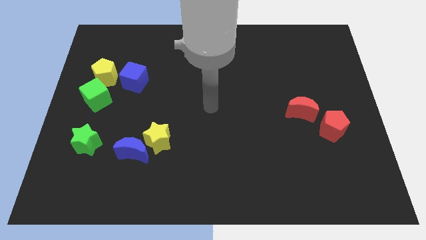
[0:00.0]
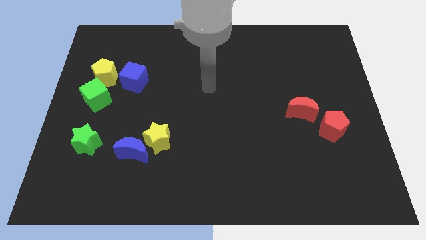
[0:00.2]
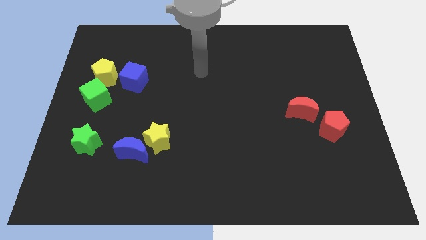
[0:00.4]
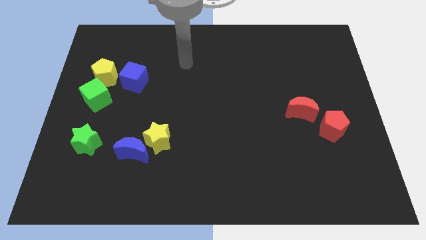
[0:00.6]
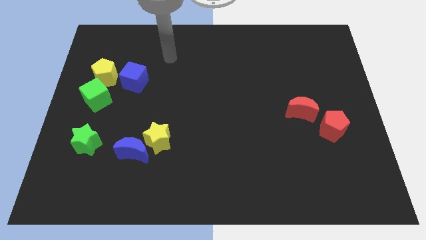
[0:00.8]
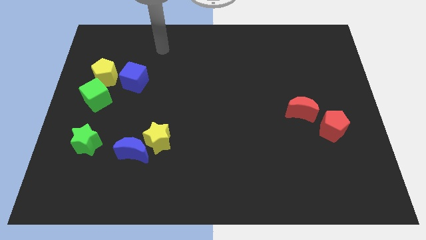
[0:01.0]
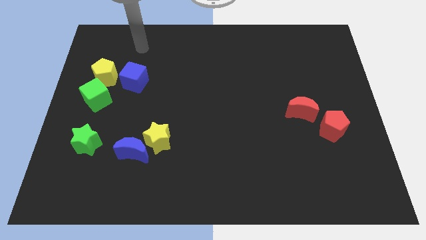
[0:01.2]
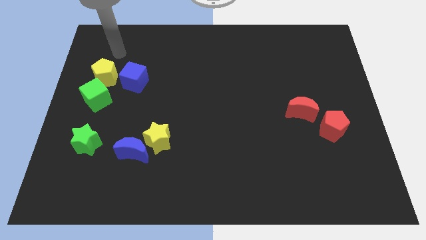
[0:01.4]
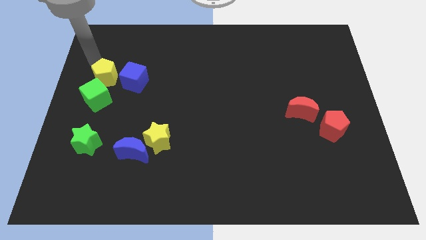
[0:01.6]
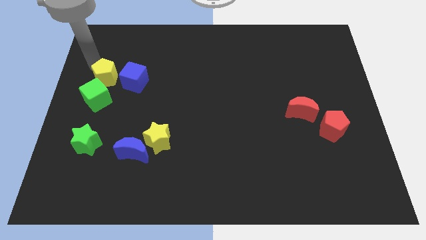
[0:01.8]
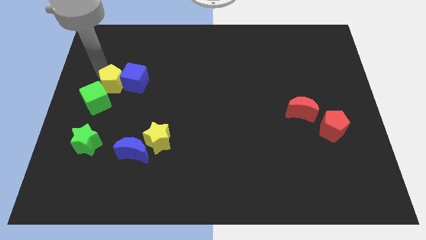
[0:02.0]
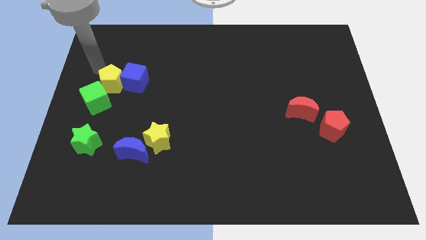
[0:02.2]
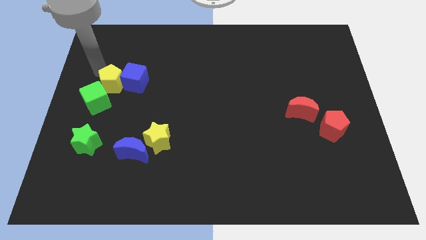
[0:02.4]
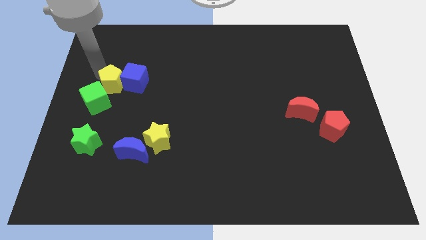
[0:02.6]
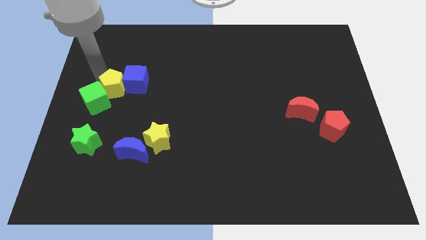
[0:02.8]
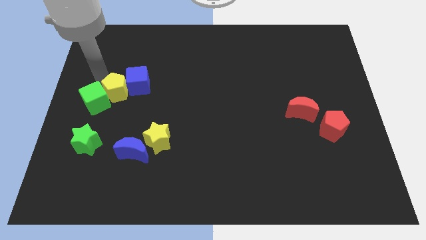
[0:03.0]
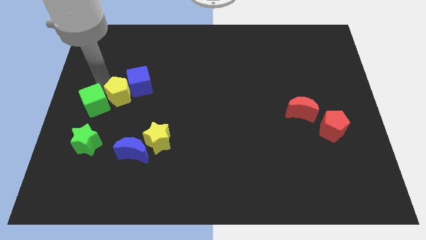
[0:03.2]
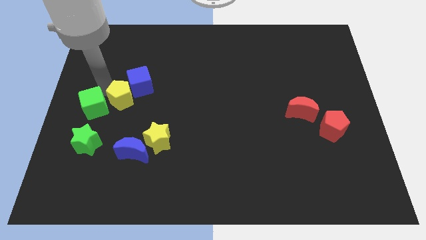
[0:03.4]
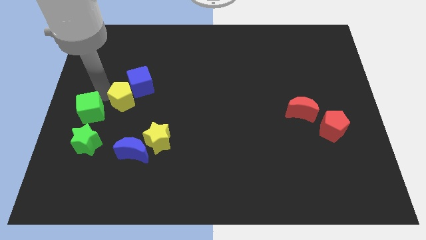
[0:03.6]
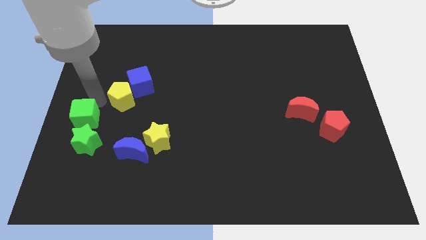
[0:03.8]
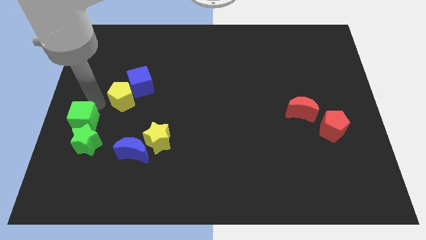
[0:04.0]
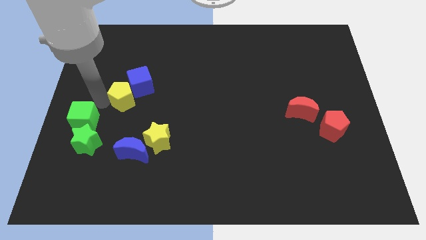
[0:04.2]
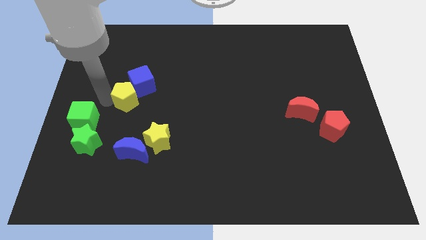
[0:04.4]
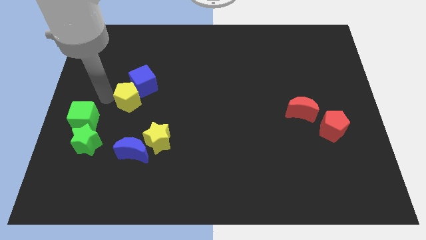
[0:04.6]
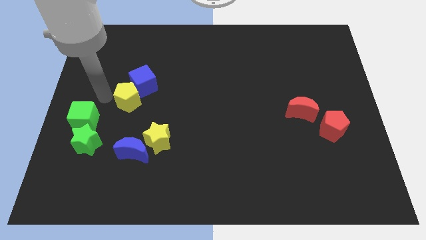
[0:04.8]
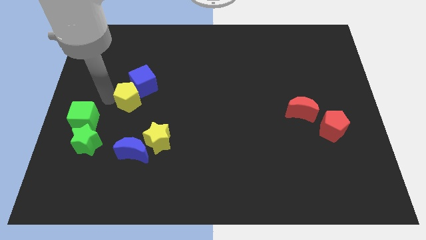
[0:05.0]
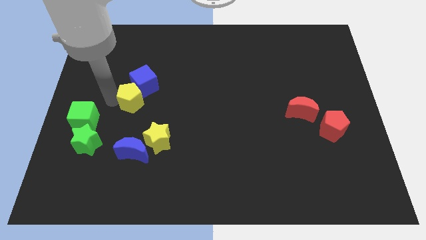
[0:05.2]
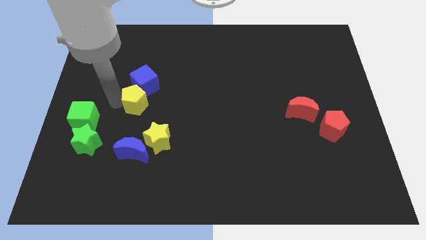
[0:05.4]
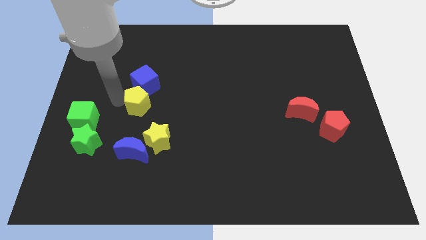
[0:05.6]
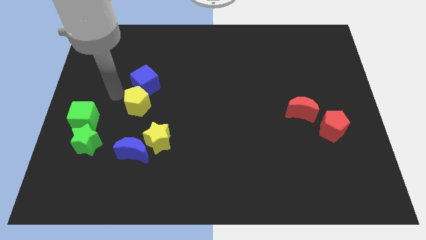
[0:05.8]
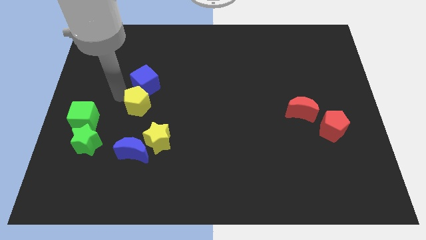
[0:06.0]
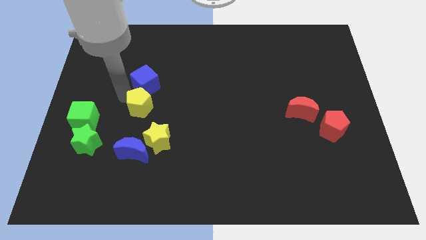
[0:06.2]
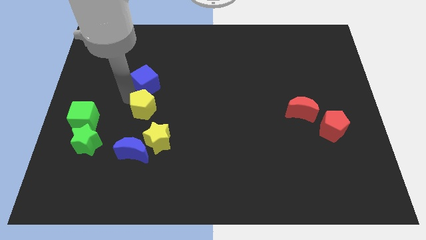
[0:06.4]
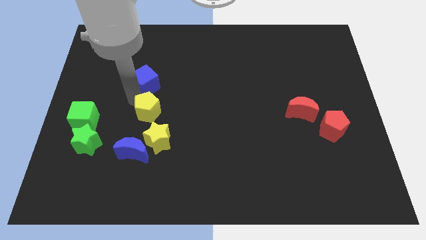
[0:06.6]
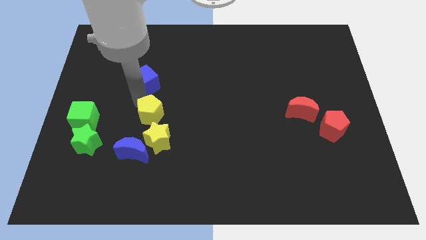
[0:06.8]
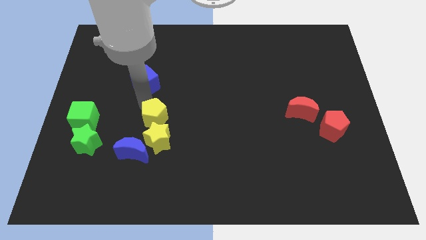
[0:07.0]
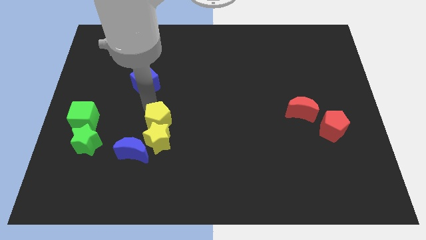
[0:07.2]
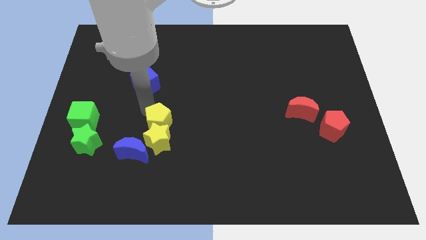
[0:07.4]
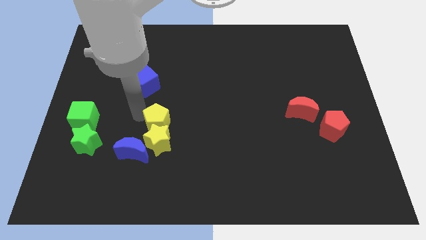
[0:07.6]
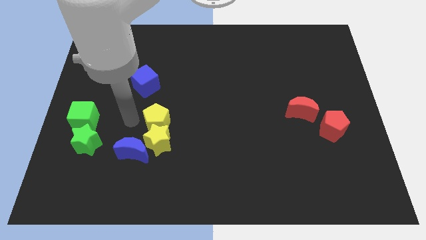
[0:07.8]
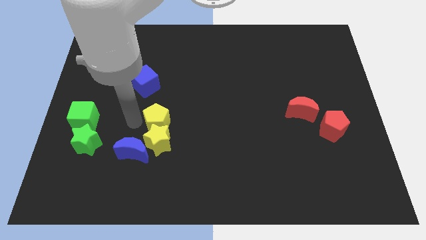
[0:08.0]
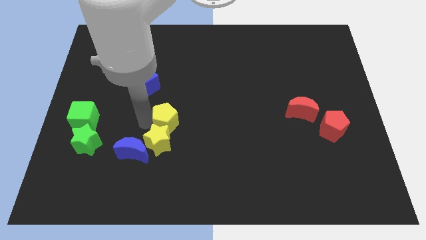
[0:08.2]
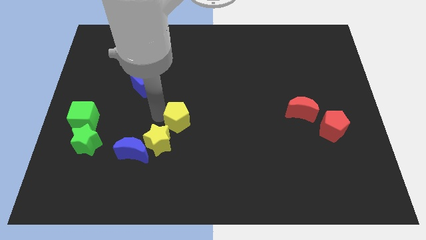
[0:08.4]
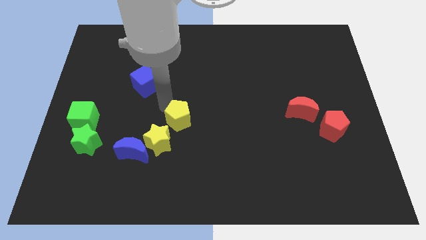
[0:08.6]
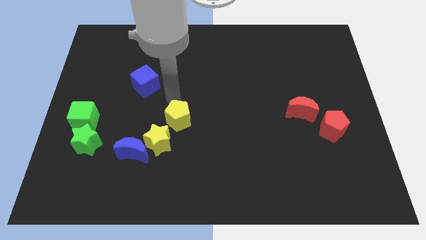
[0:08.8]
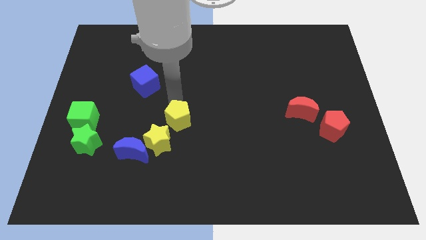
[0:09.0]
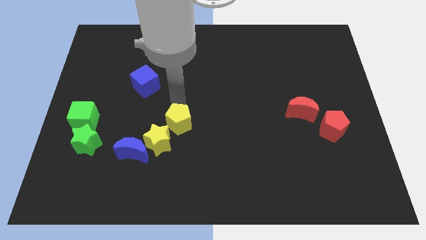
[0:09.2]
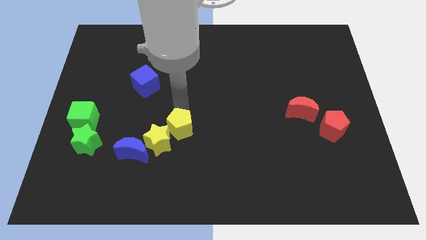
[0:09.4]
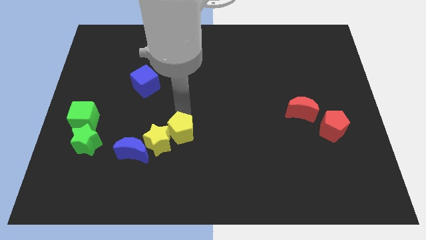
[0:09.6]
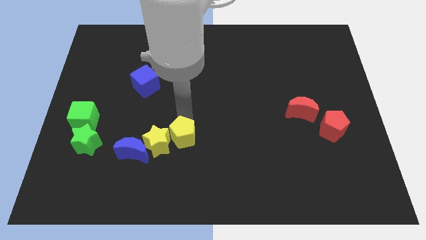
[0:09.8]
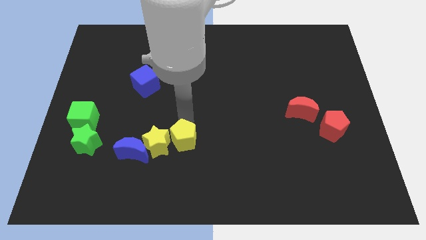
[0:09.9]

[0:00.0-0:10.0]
move the yellow pentagon diagonally down and to the right of the yellow star
